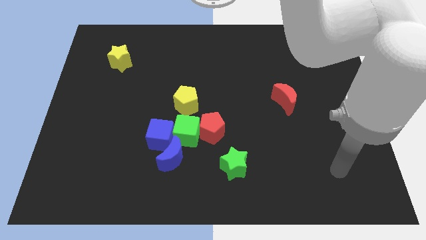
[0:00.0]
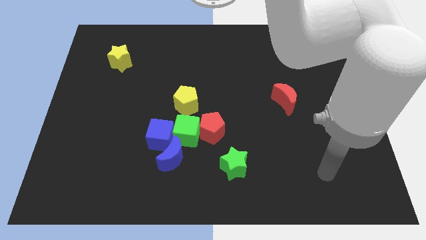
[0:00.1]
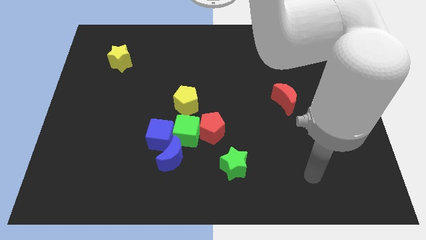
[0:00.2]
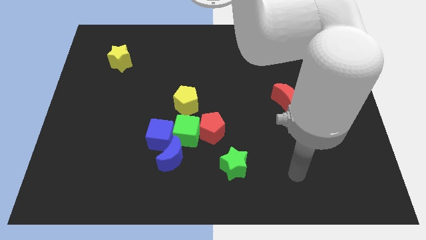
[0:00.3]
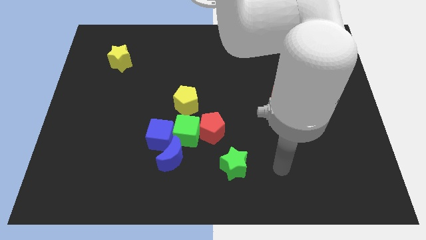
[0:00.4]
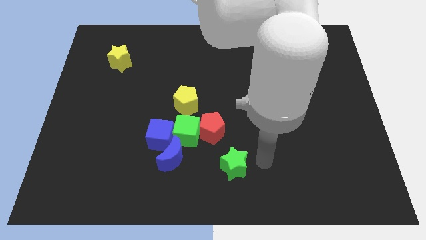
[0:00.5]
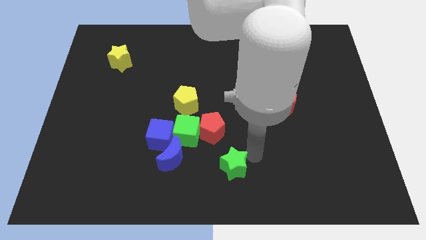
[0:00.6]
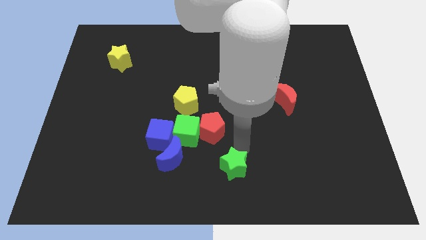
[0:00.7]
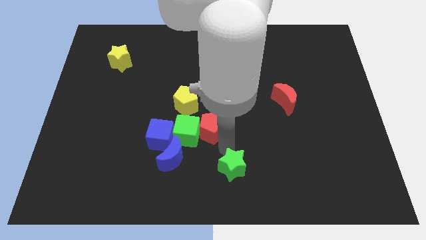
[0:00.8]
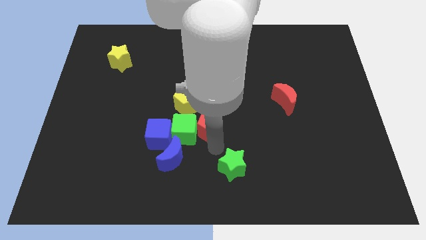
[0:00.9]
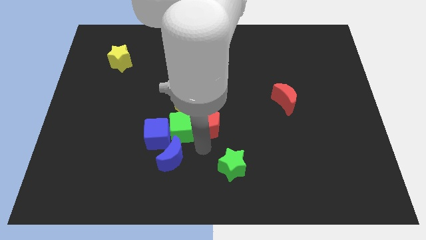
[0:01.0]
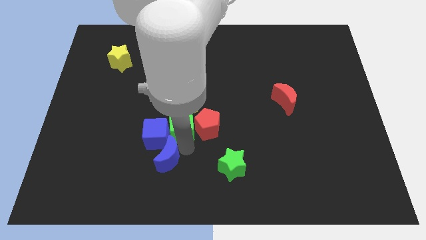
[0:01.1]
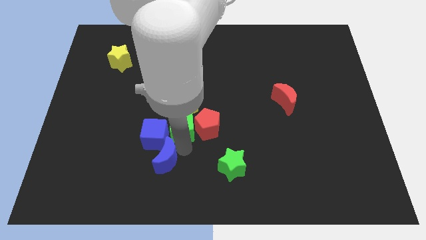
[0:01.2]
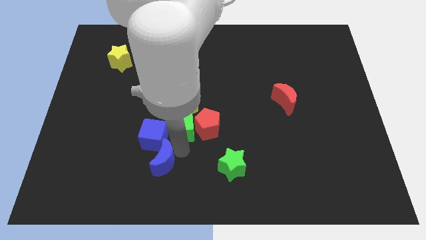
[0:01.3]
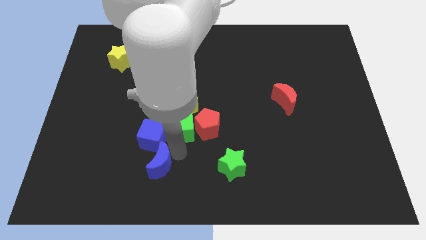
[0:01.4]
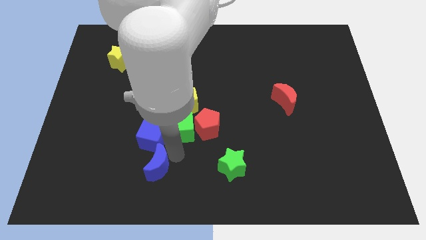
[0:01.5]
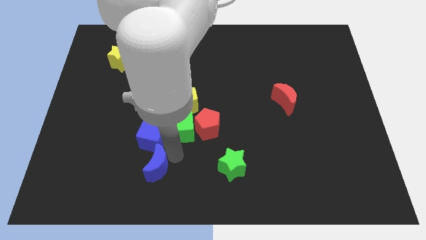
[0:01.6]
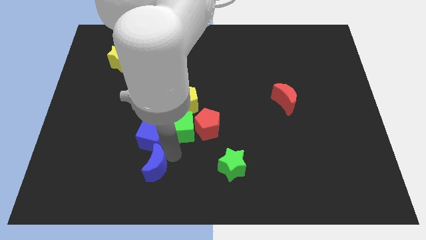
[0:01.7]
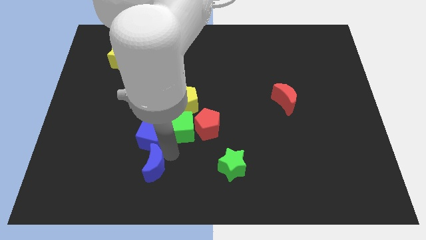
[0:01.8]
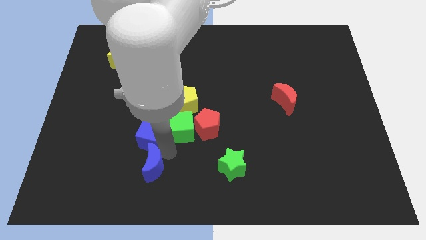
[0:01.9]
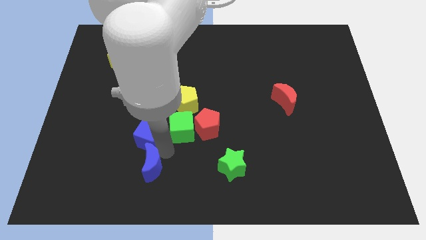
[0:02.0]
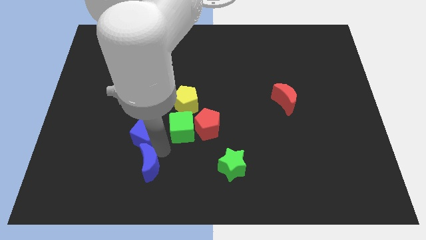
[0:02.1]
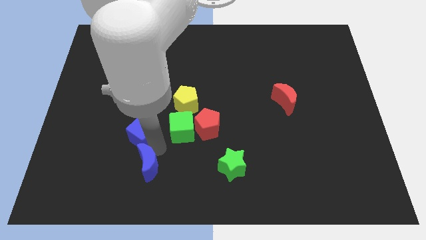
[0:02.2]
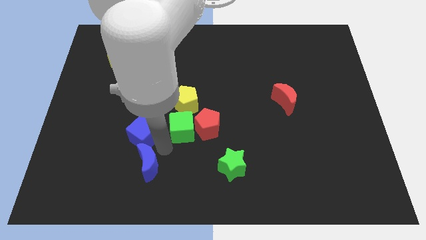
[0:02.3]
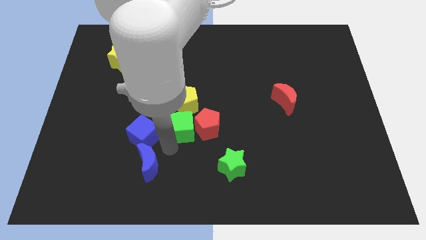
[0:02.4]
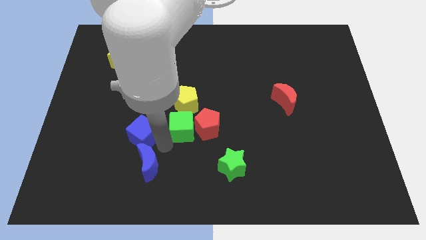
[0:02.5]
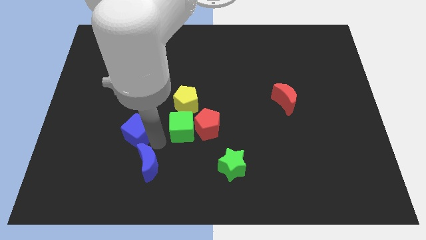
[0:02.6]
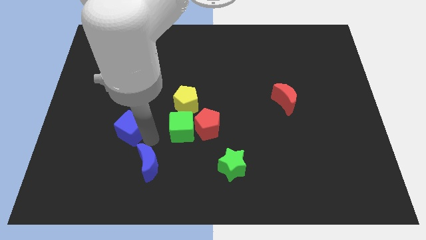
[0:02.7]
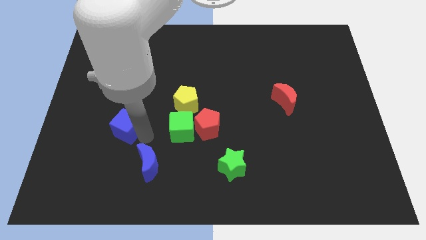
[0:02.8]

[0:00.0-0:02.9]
move the blue cube away from the green cube and blue moon

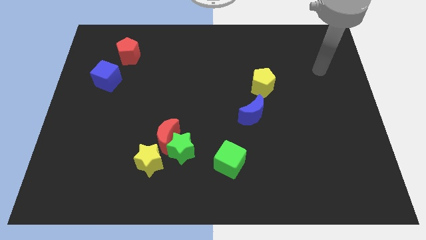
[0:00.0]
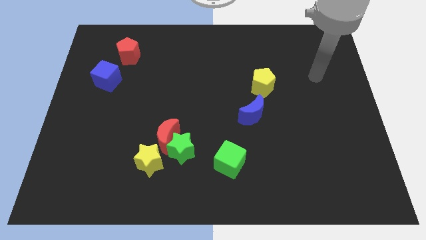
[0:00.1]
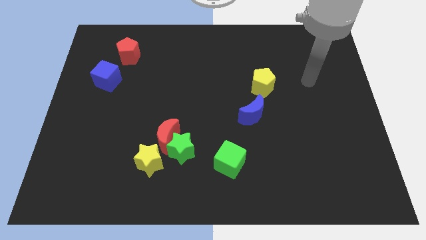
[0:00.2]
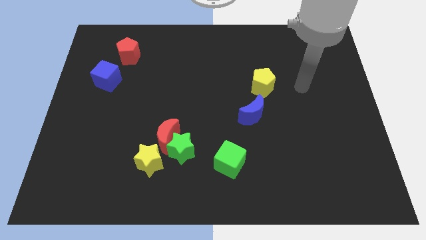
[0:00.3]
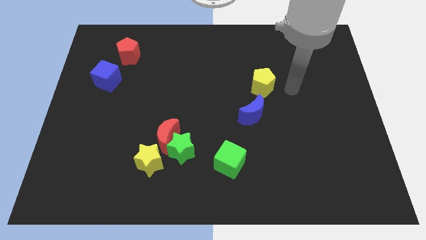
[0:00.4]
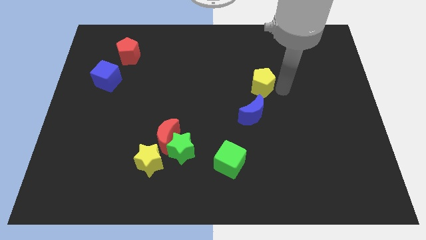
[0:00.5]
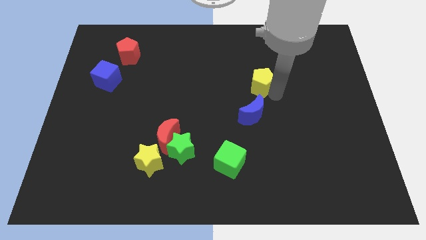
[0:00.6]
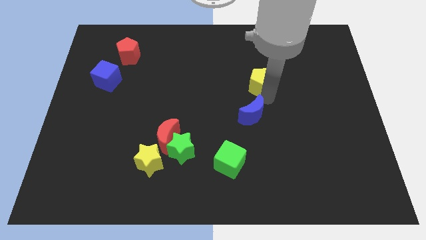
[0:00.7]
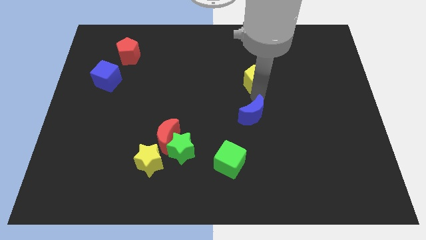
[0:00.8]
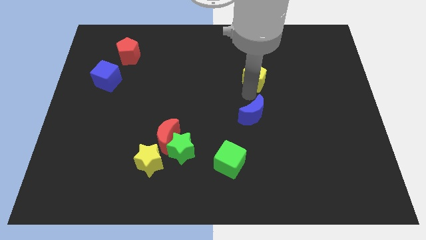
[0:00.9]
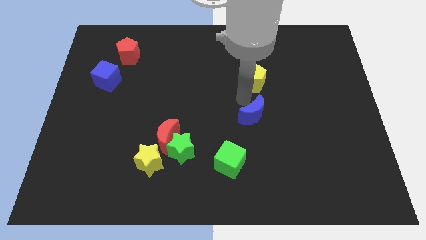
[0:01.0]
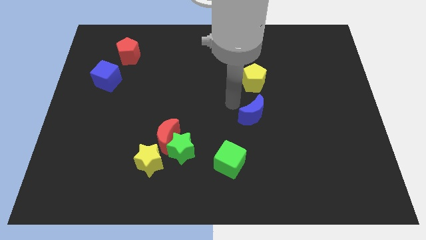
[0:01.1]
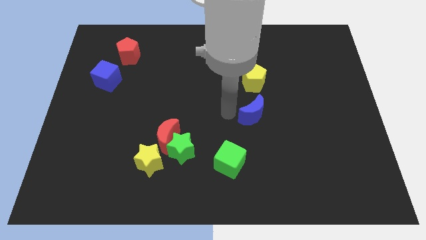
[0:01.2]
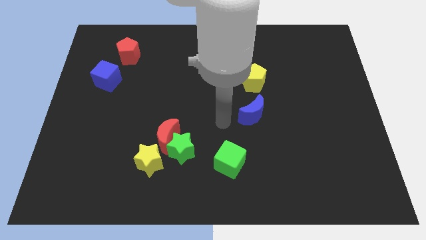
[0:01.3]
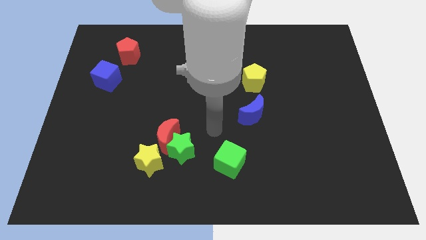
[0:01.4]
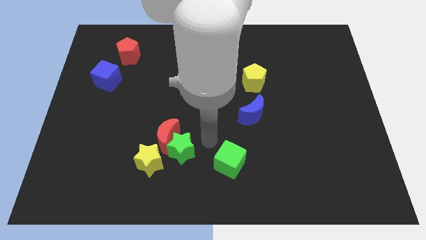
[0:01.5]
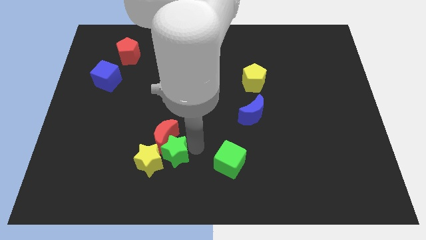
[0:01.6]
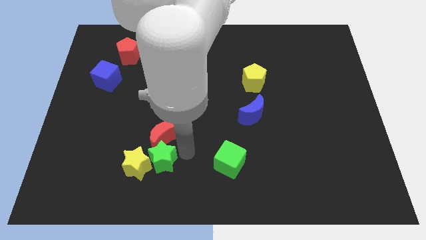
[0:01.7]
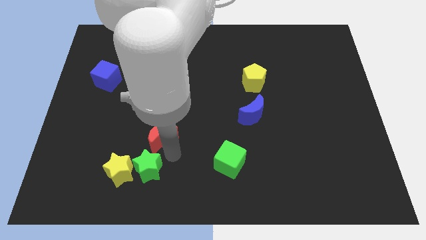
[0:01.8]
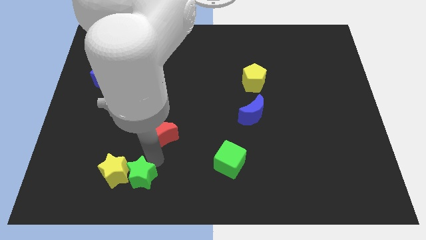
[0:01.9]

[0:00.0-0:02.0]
move the red moon away from the green star and yellow star

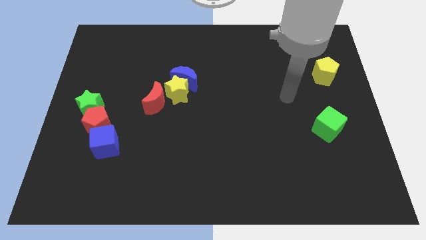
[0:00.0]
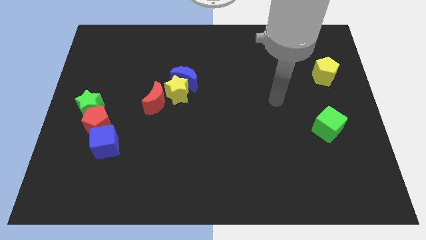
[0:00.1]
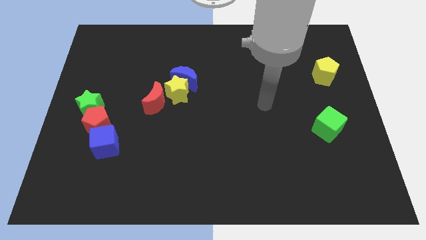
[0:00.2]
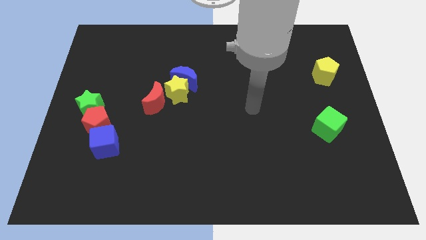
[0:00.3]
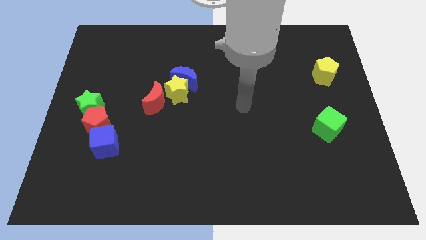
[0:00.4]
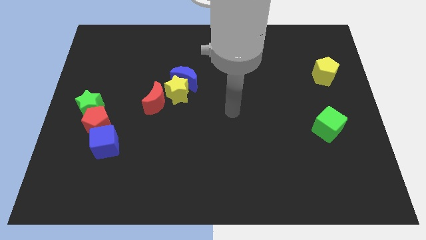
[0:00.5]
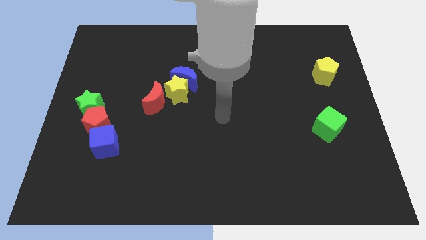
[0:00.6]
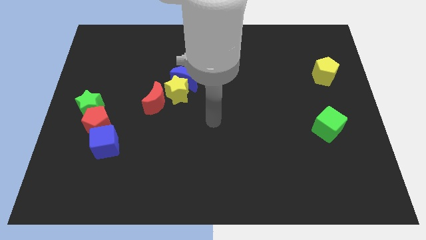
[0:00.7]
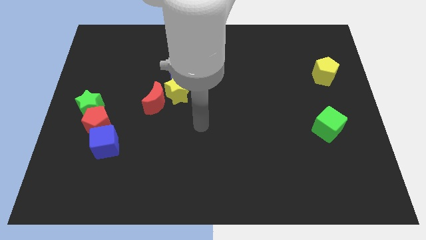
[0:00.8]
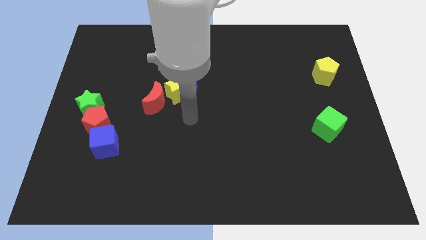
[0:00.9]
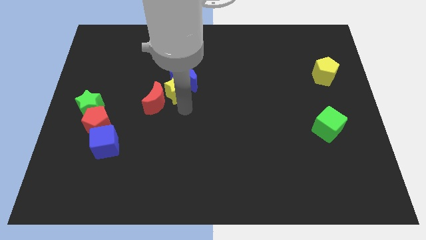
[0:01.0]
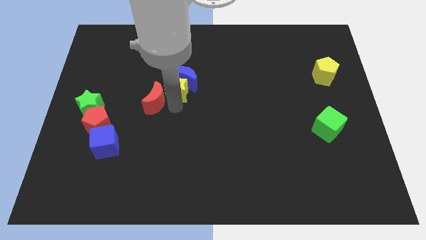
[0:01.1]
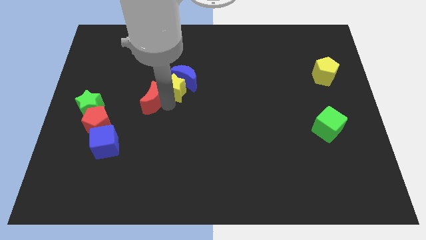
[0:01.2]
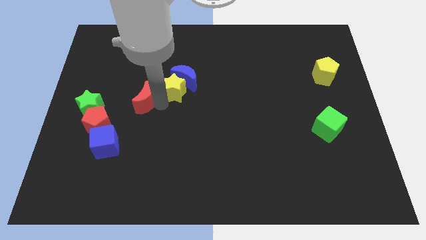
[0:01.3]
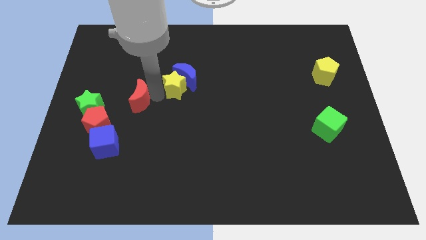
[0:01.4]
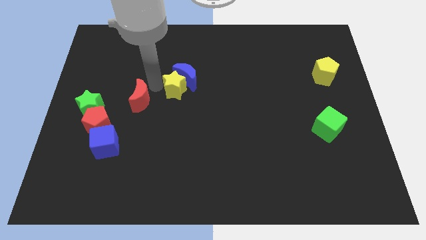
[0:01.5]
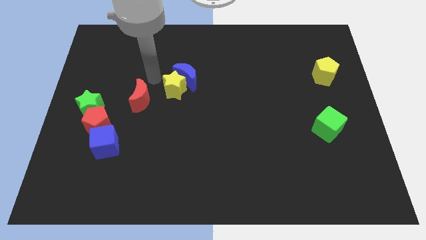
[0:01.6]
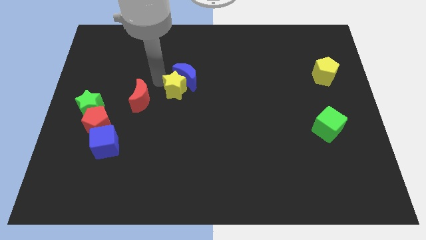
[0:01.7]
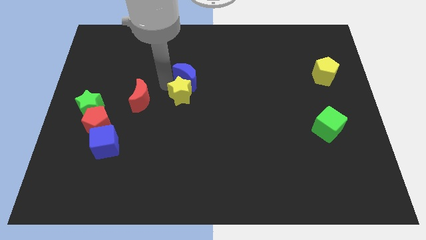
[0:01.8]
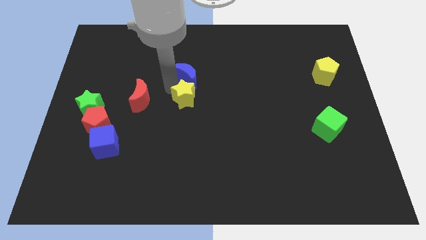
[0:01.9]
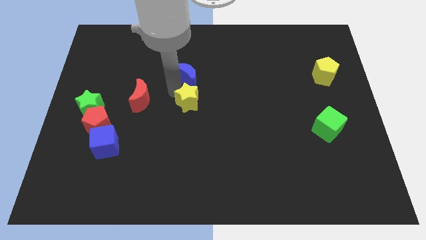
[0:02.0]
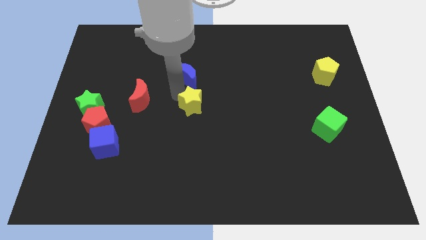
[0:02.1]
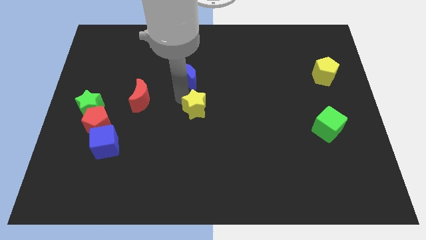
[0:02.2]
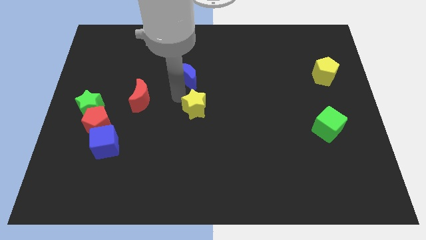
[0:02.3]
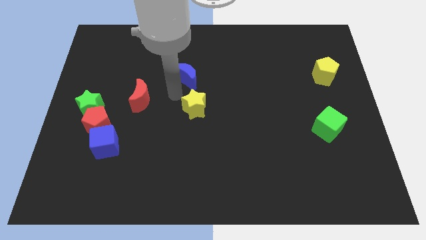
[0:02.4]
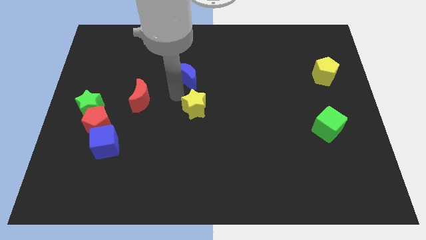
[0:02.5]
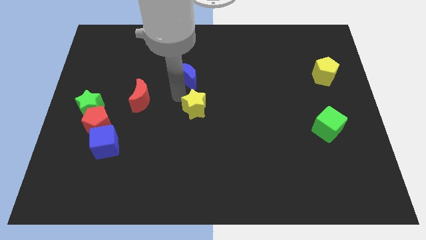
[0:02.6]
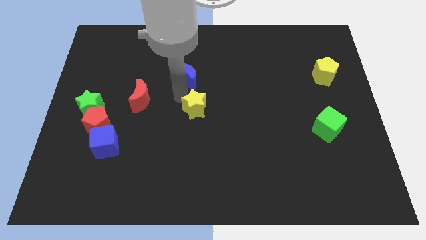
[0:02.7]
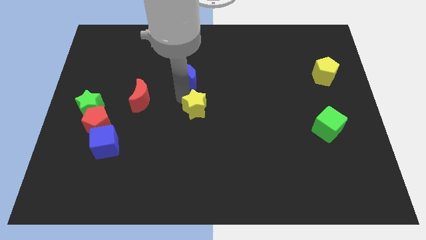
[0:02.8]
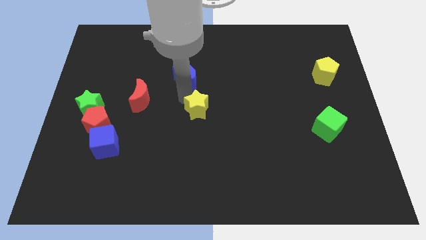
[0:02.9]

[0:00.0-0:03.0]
move the yellow star away from the blue moon and red moon

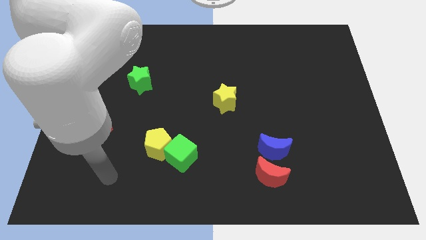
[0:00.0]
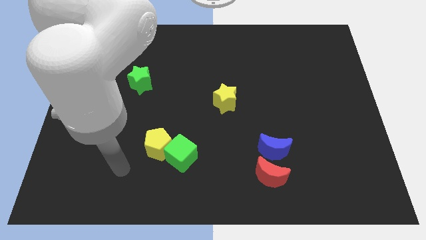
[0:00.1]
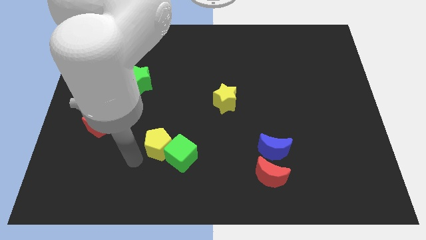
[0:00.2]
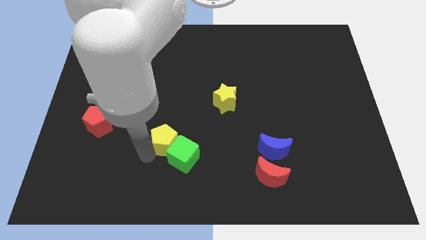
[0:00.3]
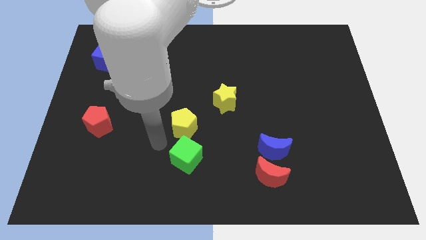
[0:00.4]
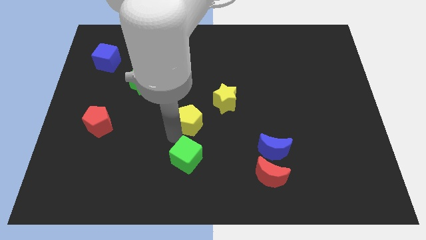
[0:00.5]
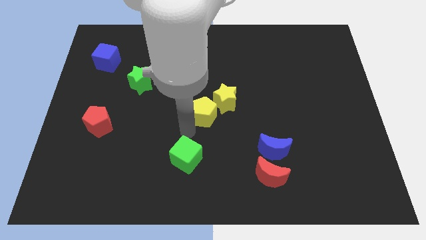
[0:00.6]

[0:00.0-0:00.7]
separate the green cube from the yellow pentagon

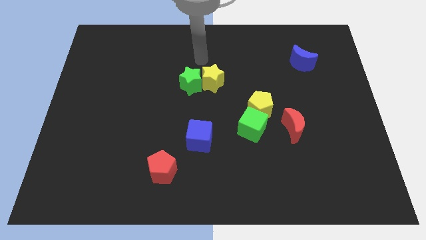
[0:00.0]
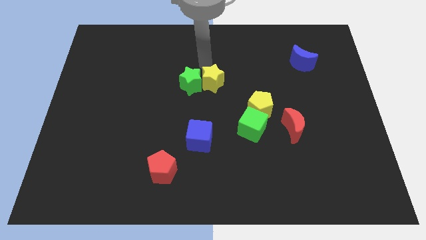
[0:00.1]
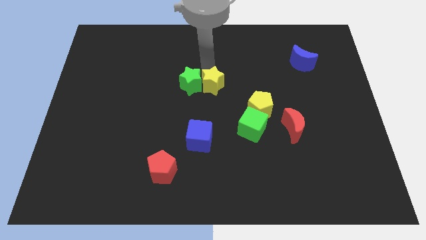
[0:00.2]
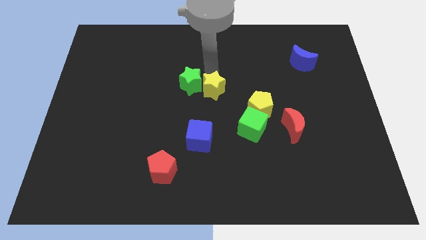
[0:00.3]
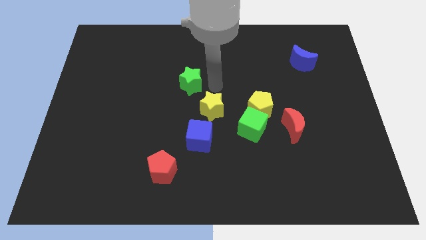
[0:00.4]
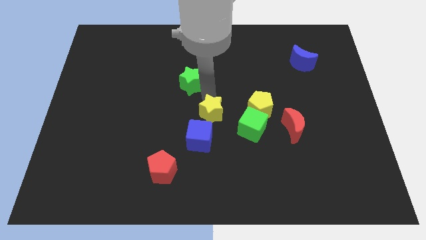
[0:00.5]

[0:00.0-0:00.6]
move the green star away from the yellow star

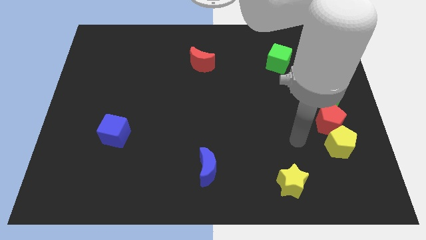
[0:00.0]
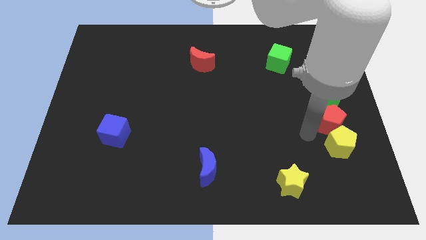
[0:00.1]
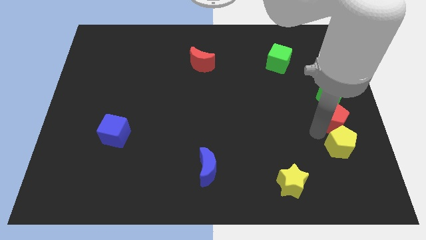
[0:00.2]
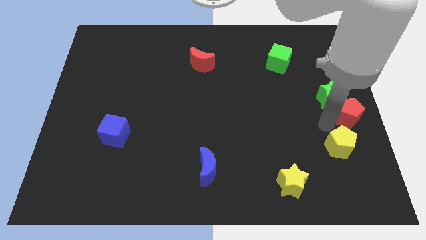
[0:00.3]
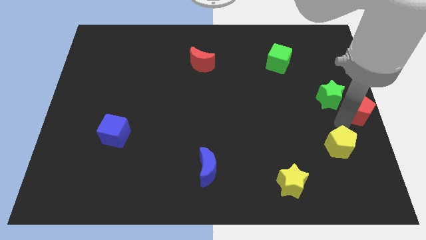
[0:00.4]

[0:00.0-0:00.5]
pull the yellow pentagon apart from the red pentagon
